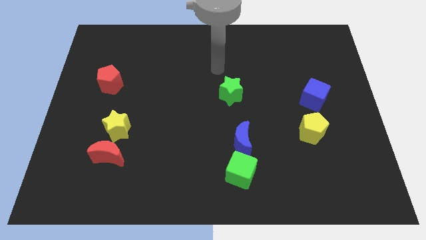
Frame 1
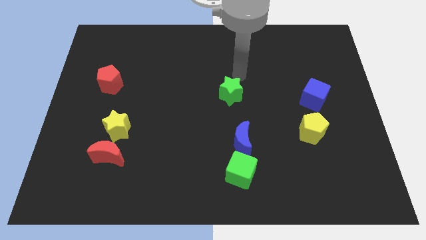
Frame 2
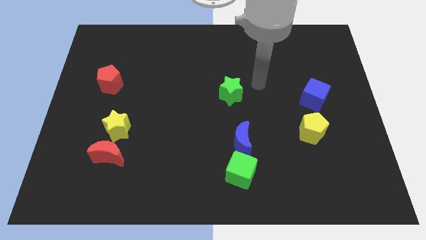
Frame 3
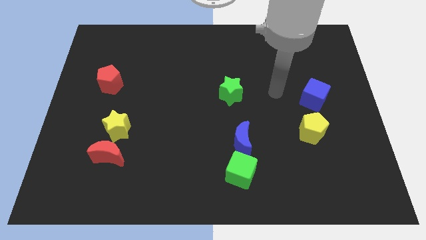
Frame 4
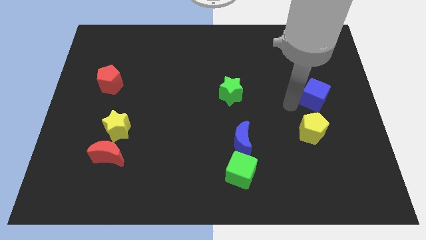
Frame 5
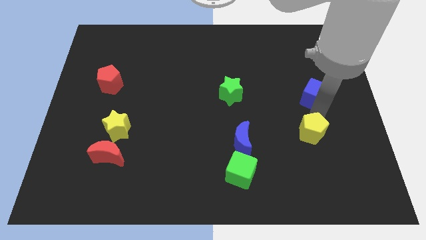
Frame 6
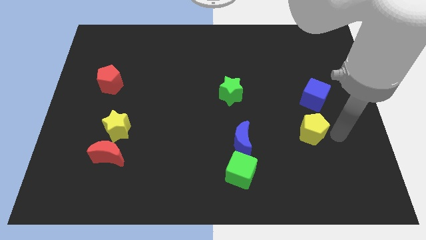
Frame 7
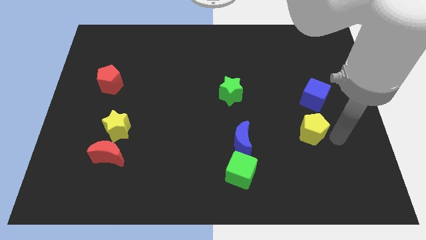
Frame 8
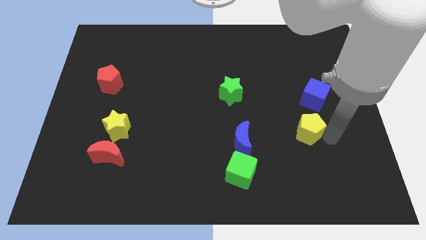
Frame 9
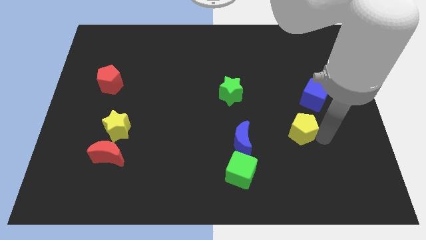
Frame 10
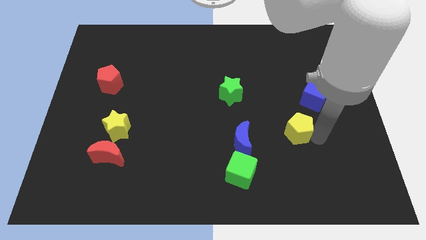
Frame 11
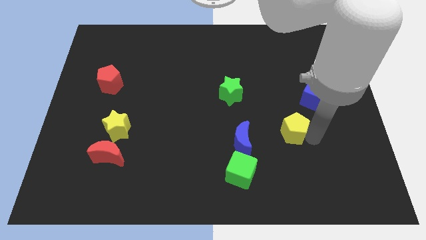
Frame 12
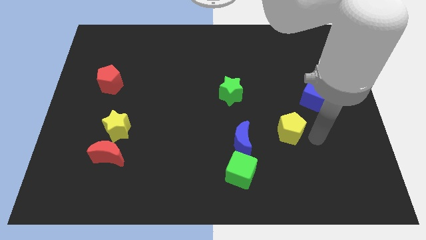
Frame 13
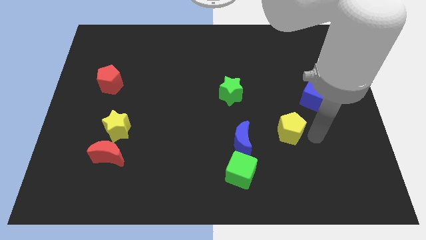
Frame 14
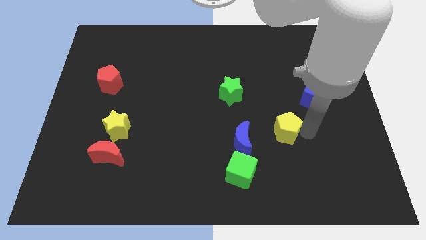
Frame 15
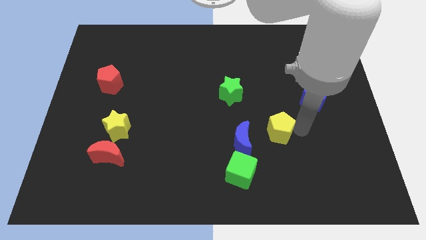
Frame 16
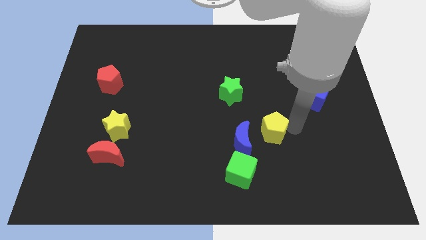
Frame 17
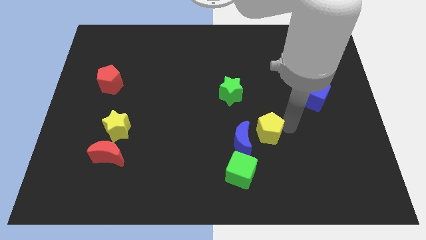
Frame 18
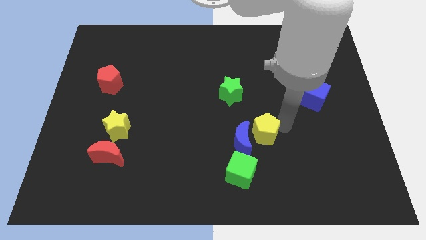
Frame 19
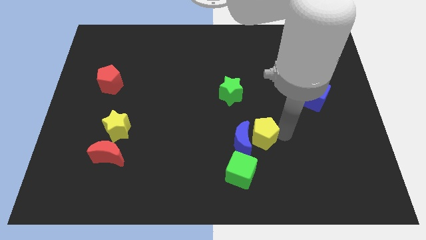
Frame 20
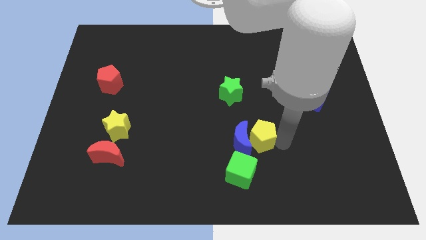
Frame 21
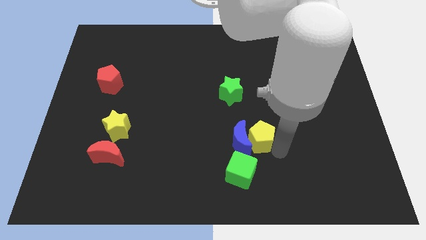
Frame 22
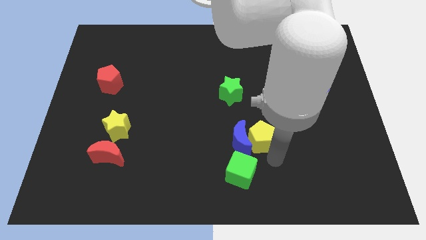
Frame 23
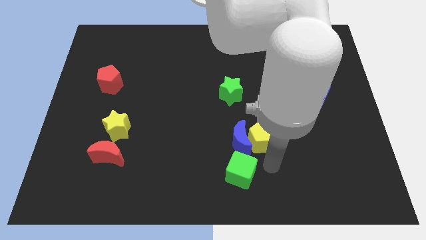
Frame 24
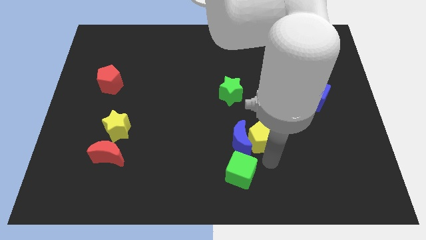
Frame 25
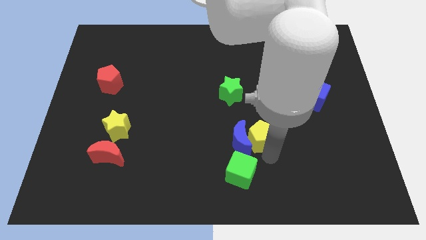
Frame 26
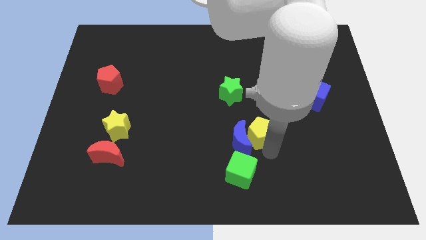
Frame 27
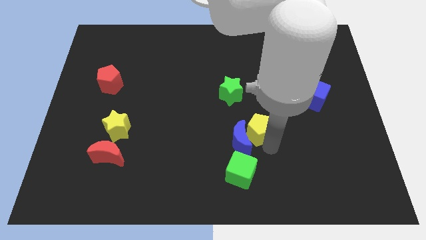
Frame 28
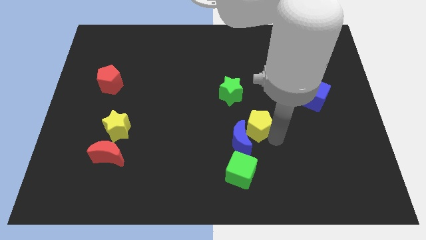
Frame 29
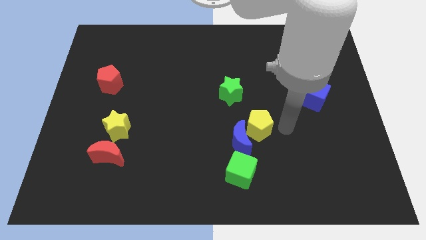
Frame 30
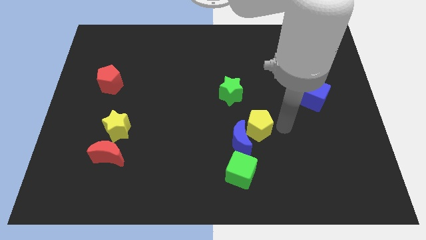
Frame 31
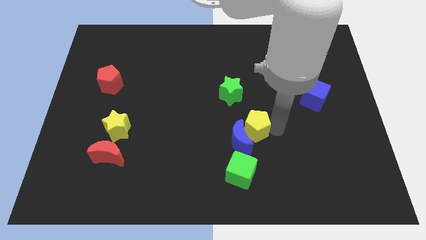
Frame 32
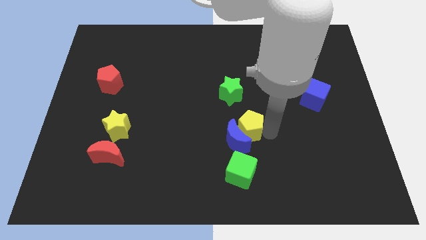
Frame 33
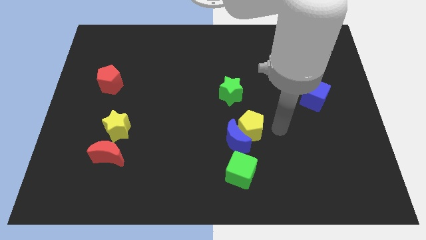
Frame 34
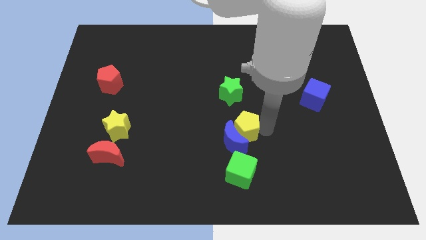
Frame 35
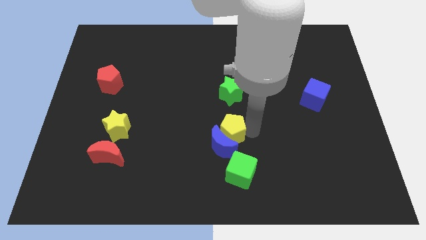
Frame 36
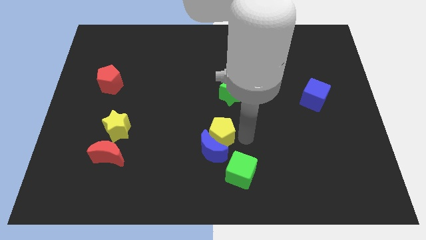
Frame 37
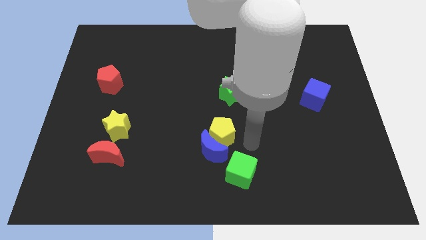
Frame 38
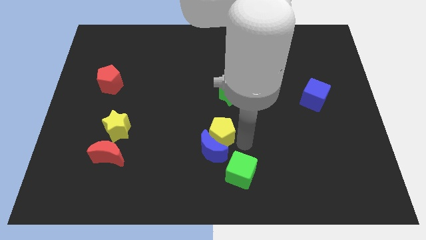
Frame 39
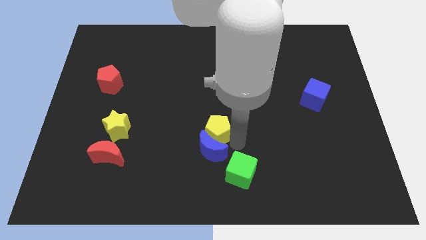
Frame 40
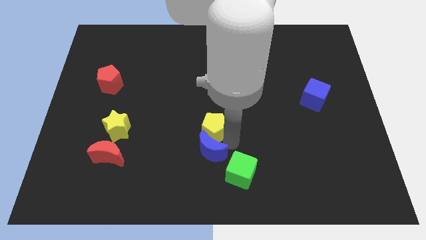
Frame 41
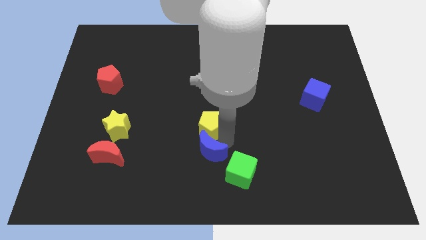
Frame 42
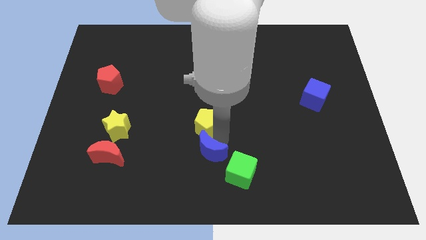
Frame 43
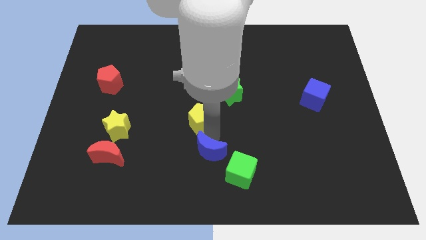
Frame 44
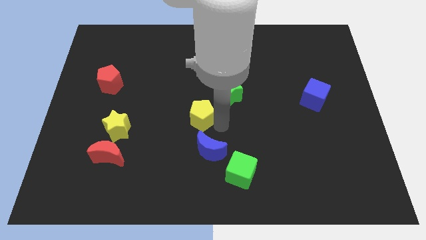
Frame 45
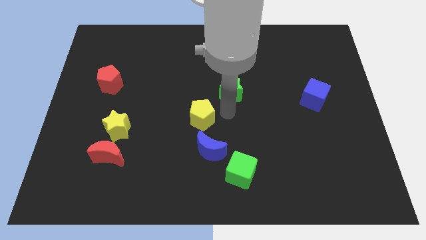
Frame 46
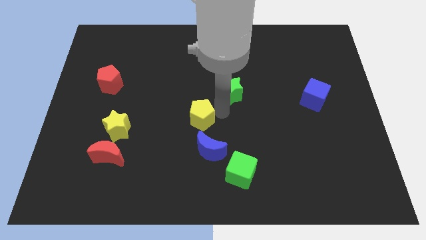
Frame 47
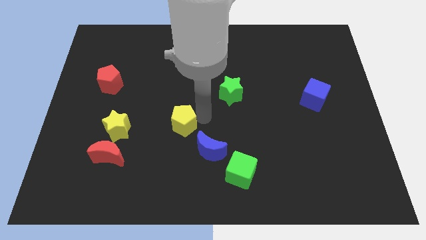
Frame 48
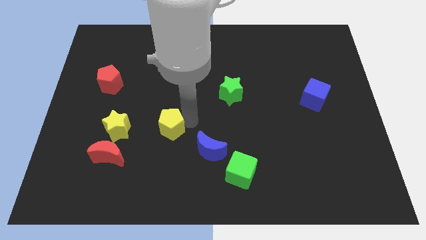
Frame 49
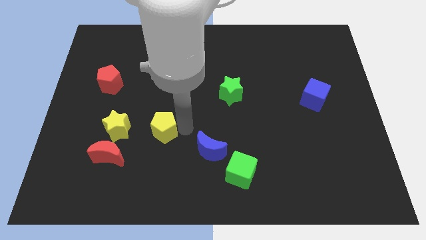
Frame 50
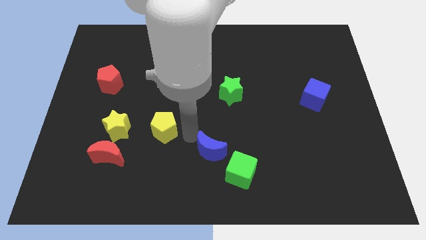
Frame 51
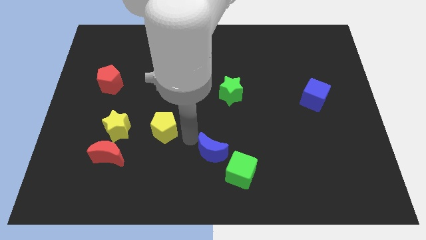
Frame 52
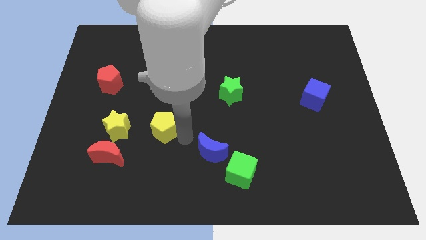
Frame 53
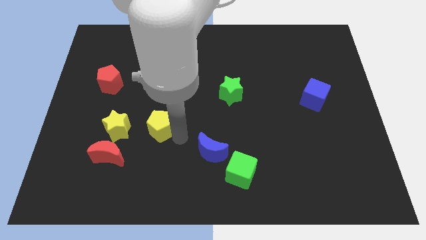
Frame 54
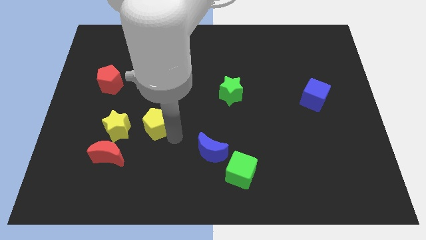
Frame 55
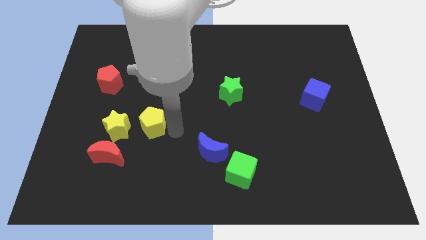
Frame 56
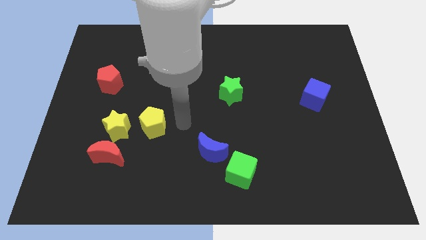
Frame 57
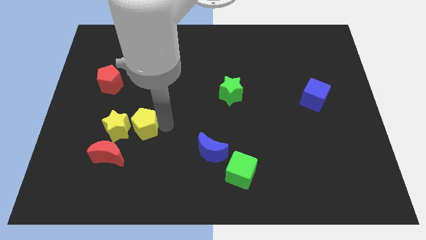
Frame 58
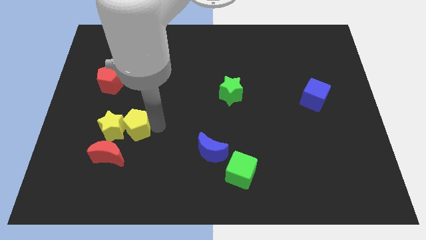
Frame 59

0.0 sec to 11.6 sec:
move the yellow pentagon to the yellow star

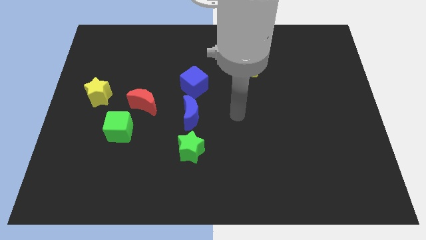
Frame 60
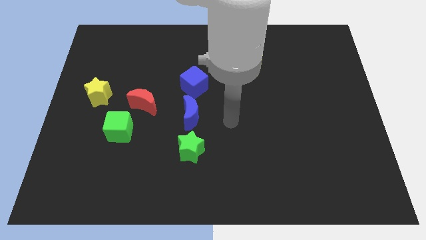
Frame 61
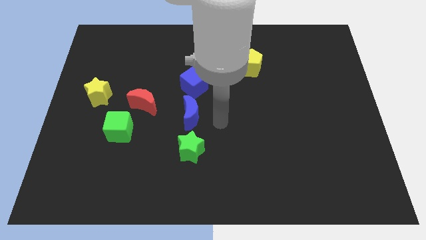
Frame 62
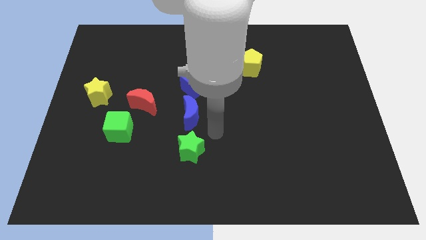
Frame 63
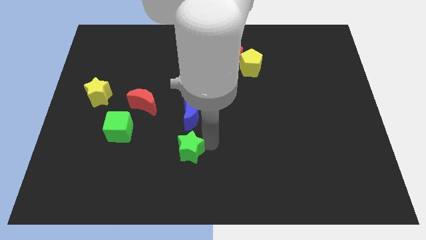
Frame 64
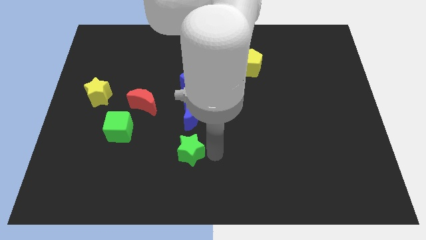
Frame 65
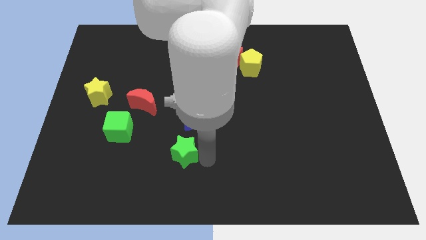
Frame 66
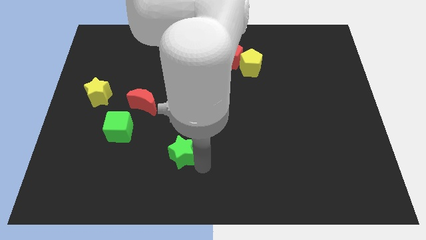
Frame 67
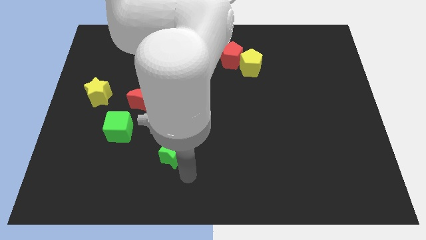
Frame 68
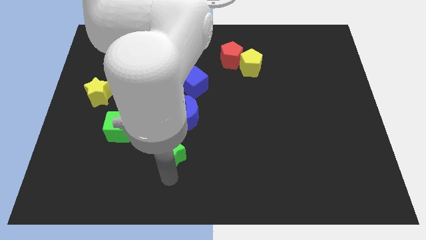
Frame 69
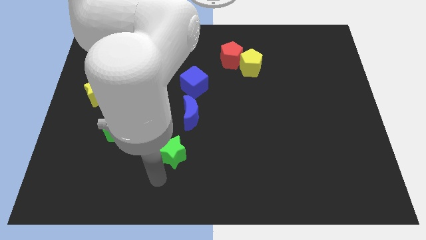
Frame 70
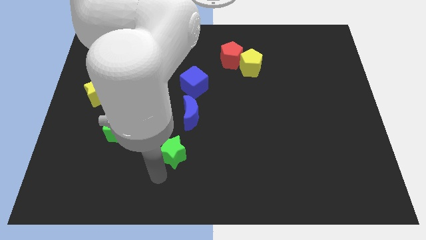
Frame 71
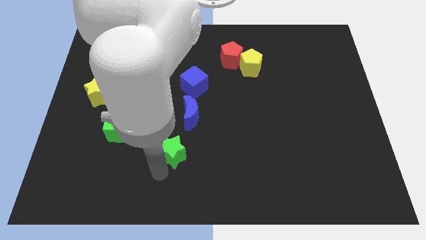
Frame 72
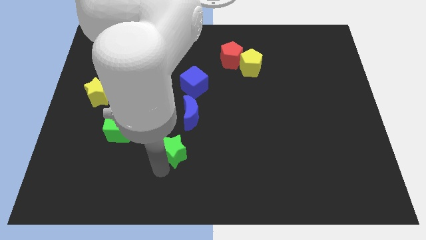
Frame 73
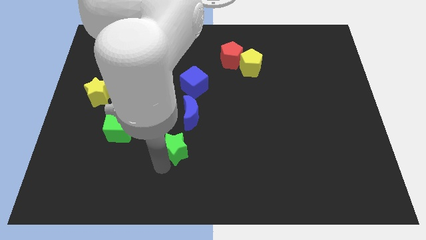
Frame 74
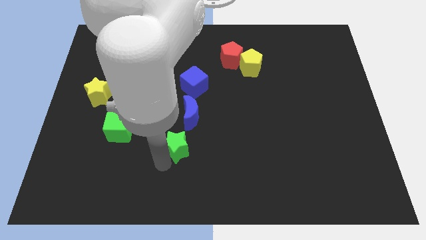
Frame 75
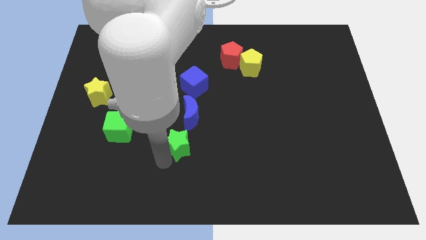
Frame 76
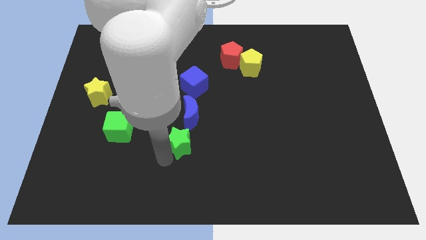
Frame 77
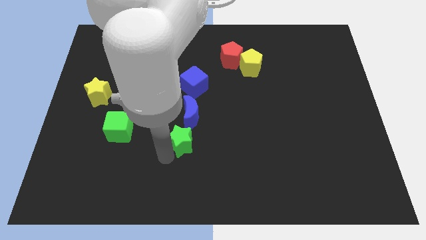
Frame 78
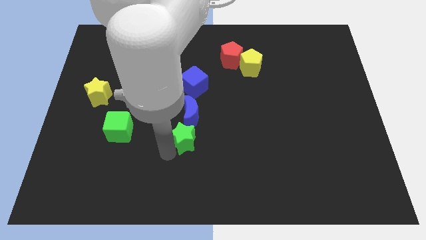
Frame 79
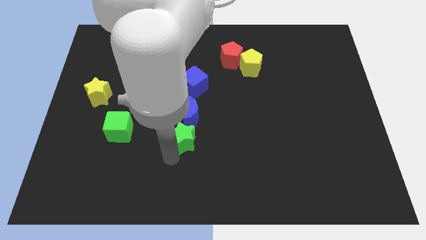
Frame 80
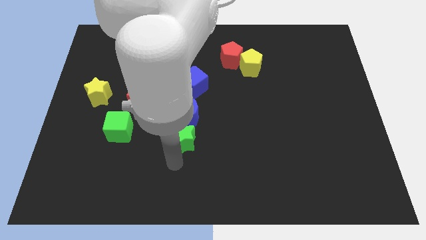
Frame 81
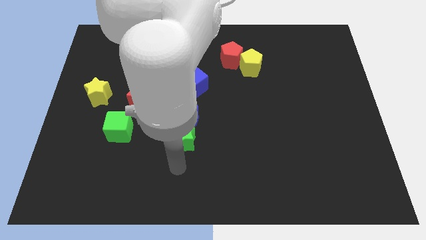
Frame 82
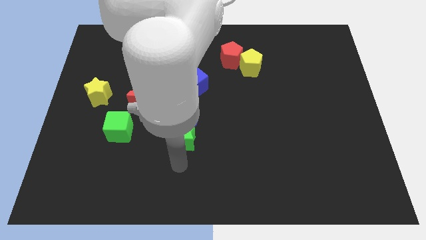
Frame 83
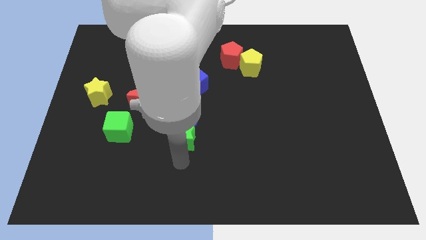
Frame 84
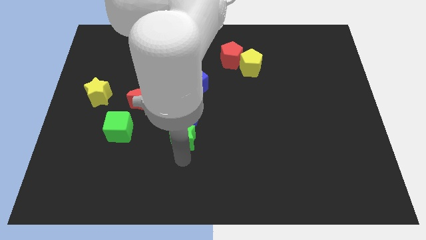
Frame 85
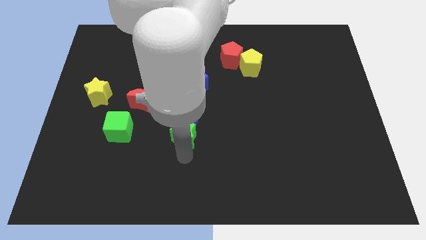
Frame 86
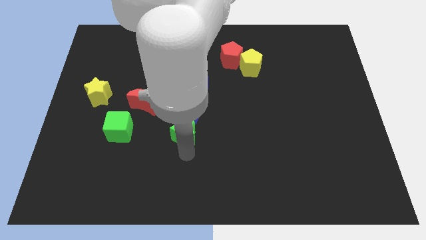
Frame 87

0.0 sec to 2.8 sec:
move the green star towards the blue moon
